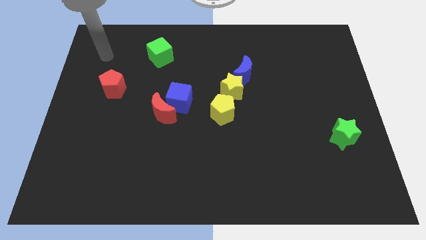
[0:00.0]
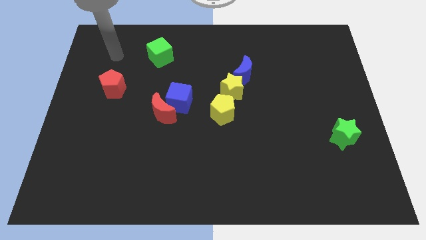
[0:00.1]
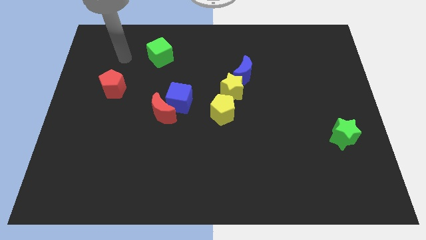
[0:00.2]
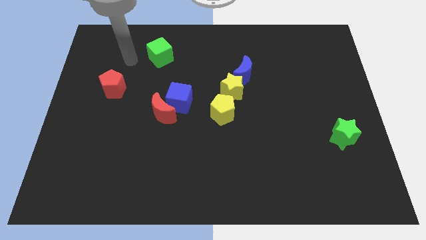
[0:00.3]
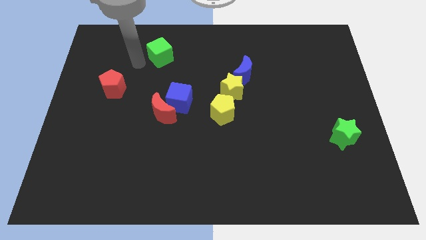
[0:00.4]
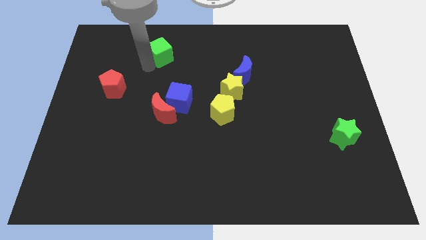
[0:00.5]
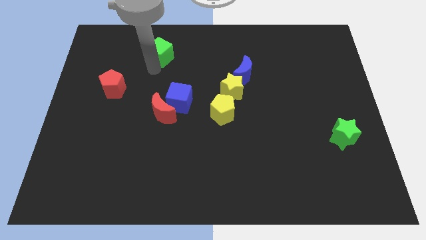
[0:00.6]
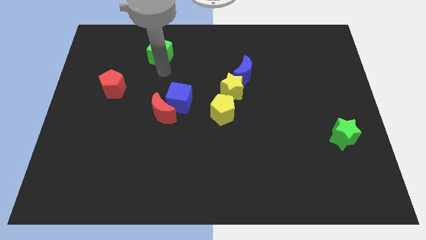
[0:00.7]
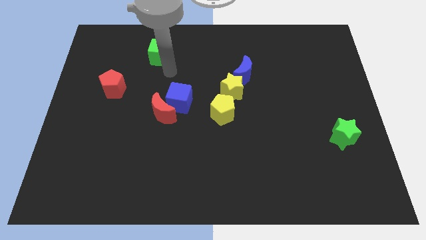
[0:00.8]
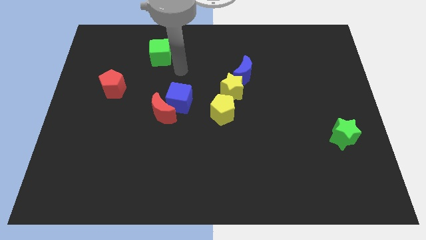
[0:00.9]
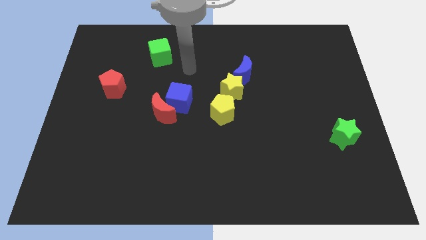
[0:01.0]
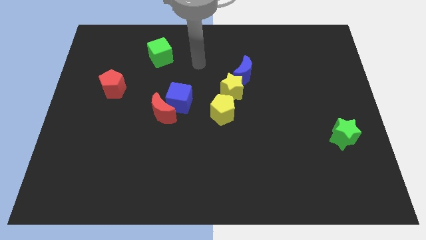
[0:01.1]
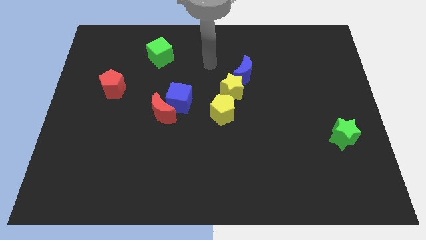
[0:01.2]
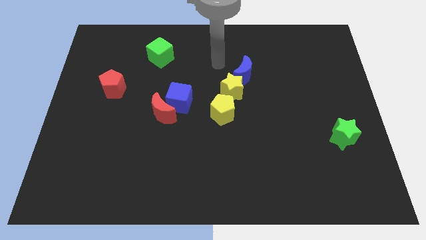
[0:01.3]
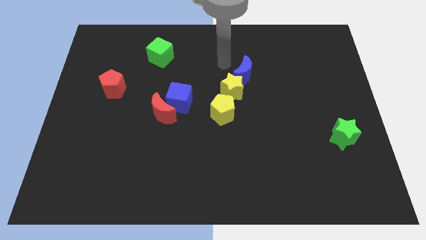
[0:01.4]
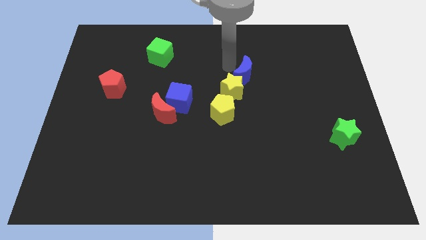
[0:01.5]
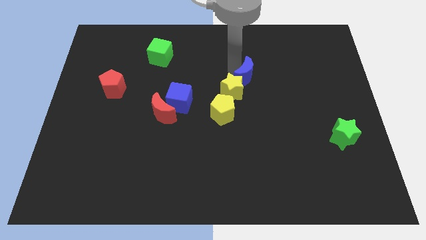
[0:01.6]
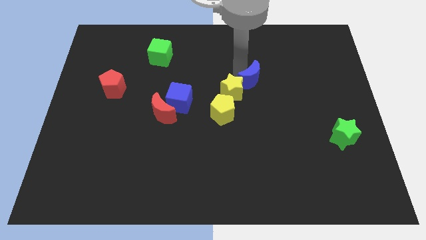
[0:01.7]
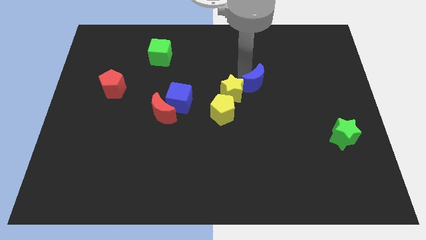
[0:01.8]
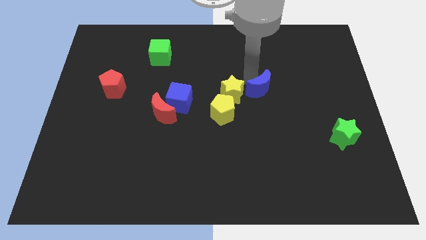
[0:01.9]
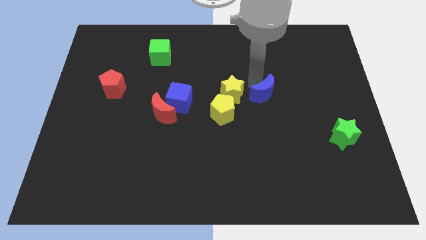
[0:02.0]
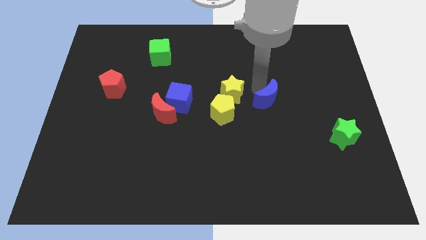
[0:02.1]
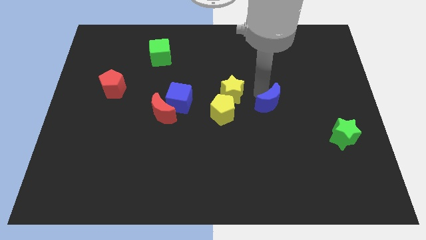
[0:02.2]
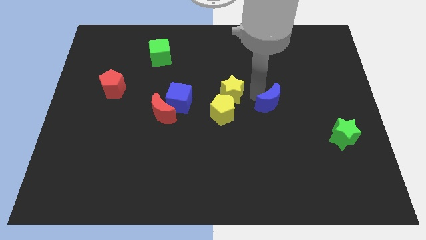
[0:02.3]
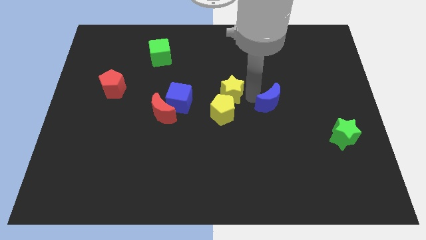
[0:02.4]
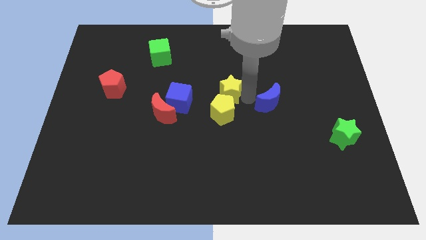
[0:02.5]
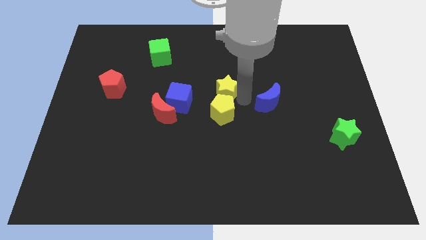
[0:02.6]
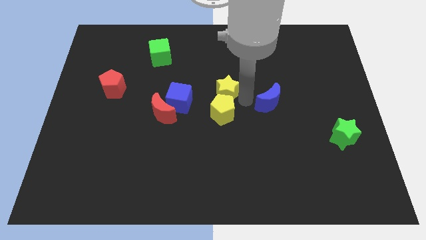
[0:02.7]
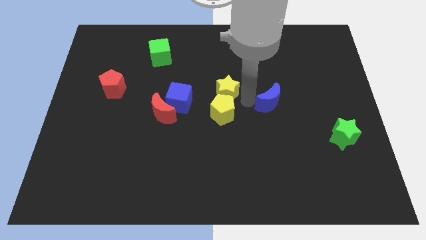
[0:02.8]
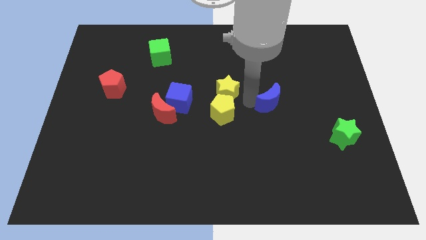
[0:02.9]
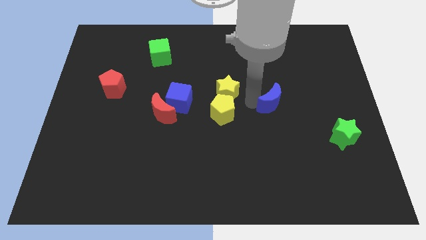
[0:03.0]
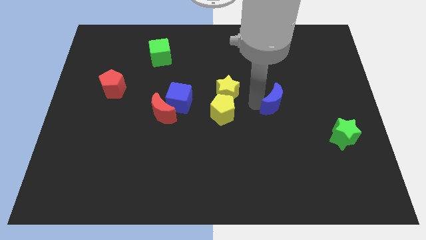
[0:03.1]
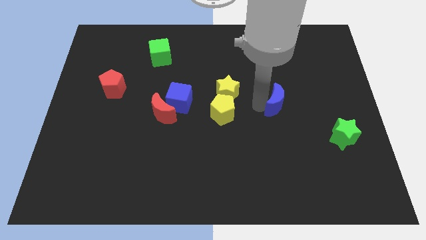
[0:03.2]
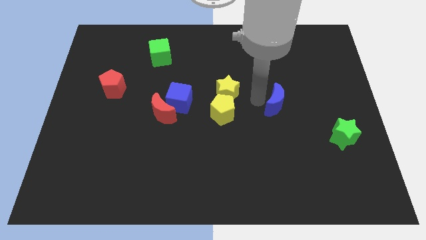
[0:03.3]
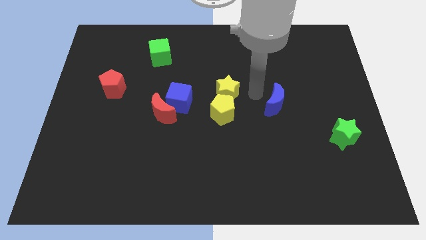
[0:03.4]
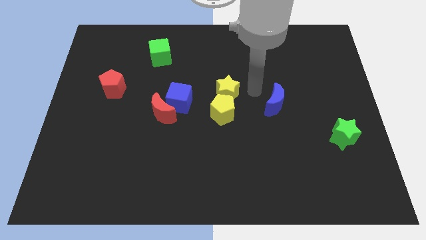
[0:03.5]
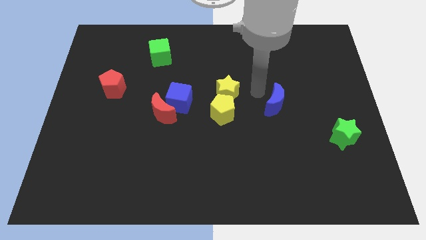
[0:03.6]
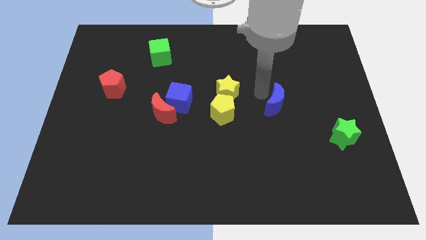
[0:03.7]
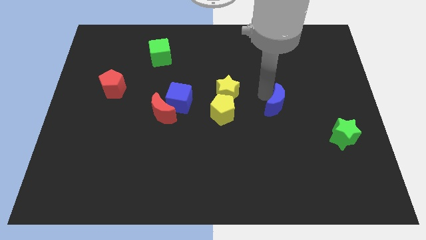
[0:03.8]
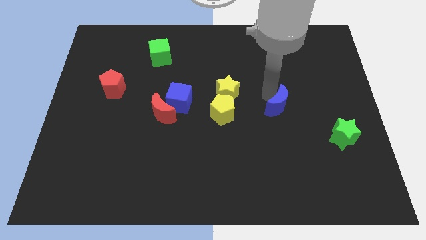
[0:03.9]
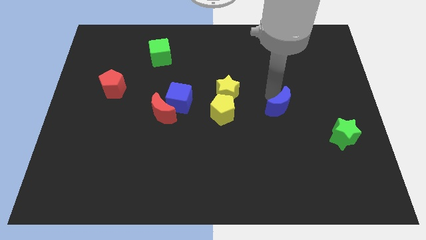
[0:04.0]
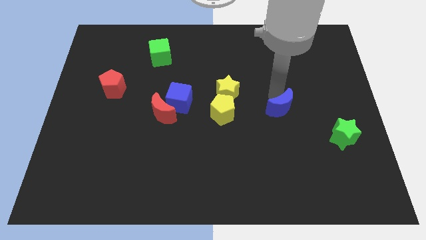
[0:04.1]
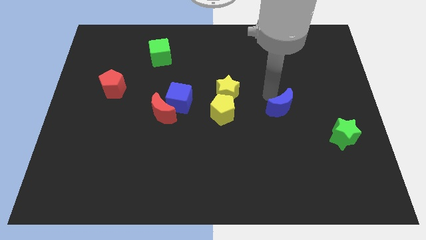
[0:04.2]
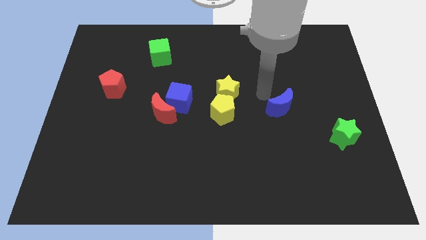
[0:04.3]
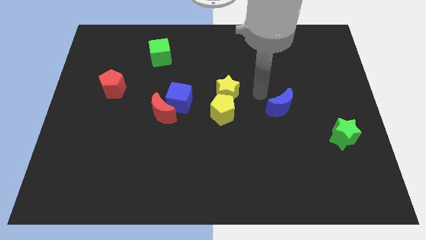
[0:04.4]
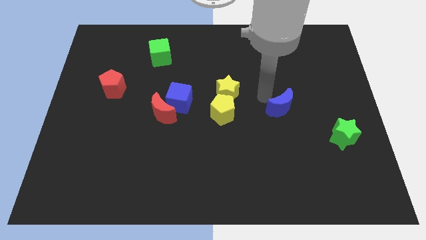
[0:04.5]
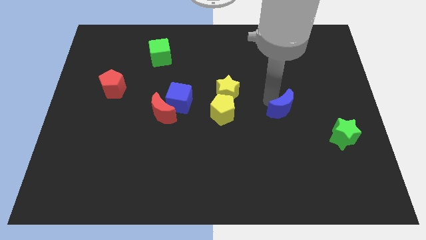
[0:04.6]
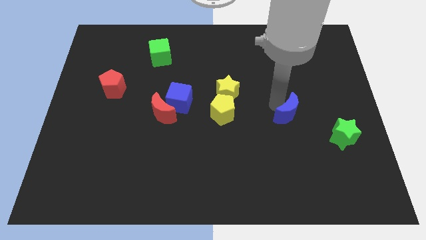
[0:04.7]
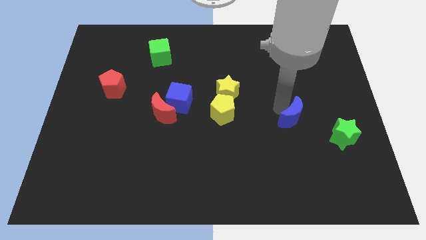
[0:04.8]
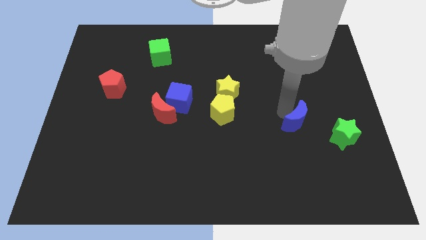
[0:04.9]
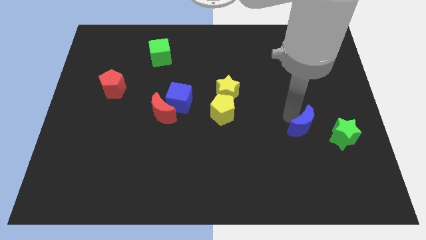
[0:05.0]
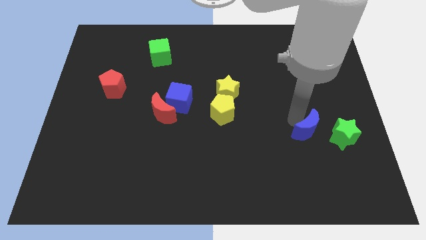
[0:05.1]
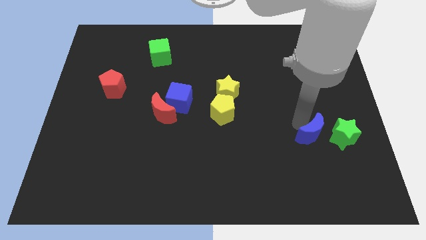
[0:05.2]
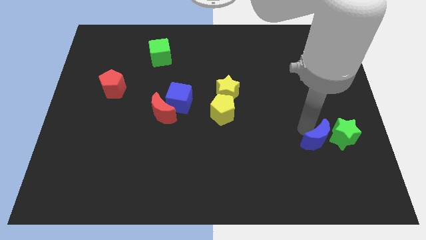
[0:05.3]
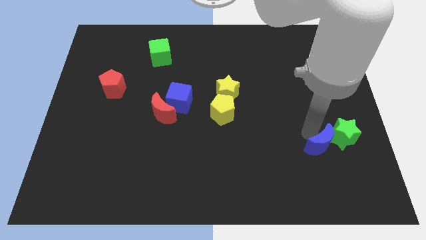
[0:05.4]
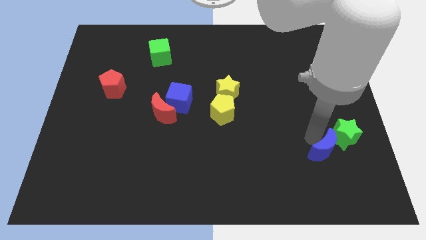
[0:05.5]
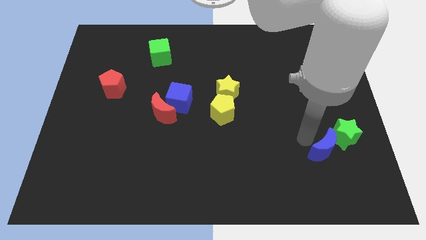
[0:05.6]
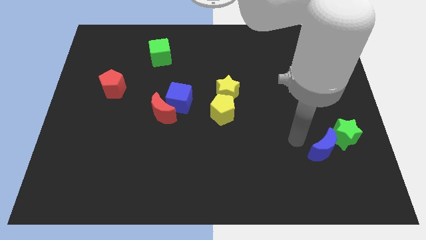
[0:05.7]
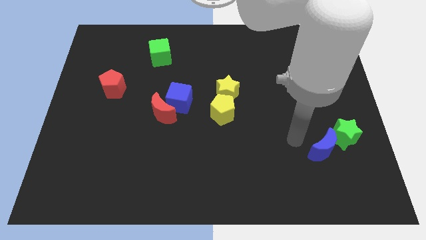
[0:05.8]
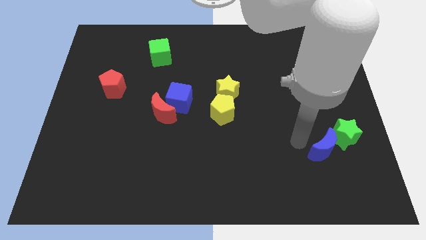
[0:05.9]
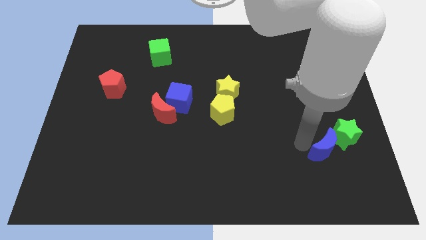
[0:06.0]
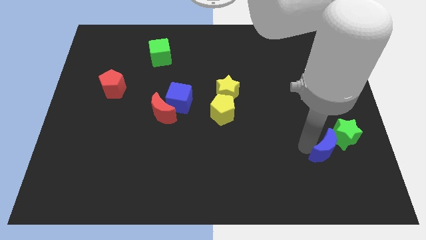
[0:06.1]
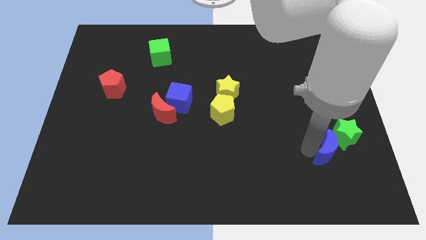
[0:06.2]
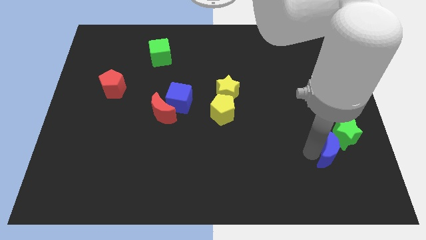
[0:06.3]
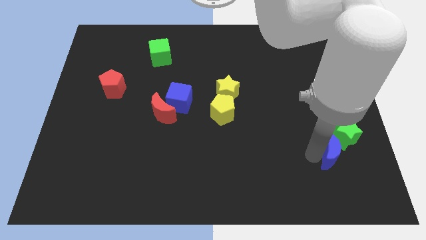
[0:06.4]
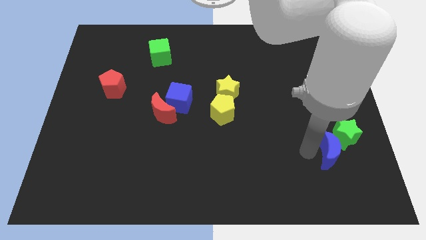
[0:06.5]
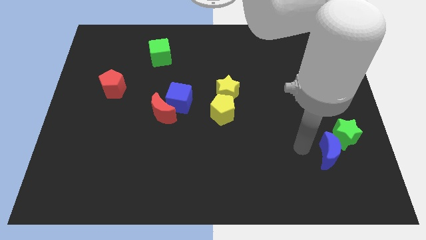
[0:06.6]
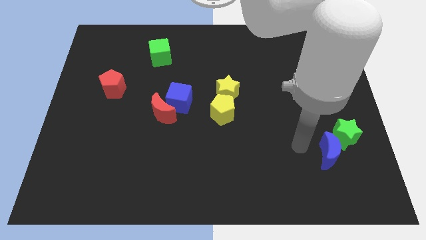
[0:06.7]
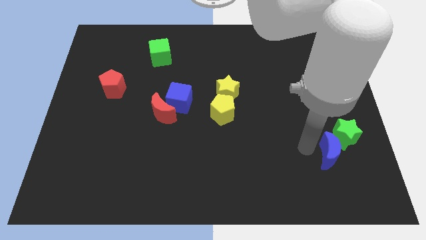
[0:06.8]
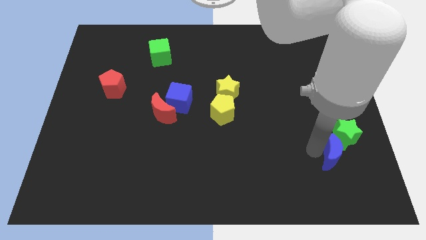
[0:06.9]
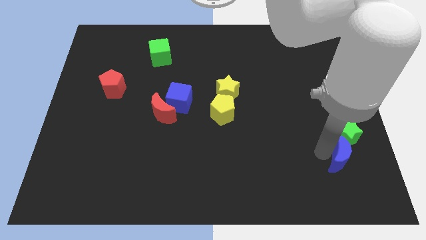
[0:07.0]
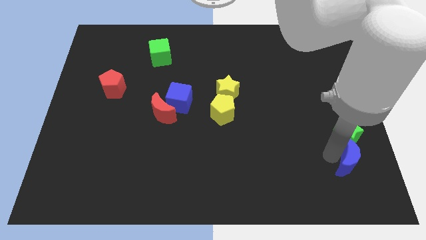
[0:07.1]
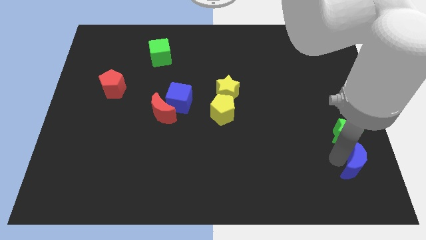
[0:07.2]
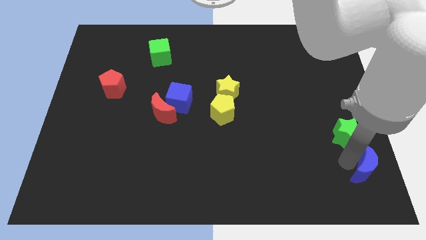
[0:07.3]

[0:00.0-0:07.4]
put the blue moon to the bottom right
